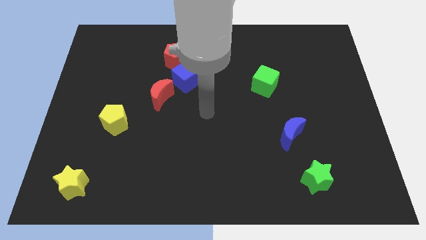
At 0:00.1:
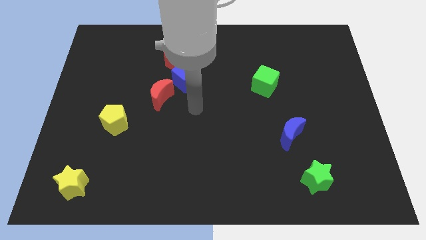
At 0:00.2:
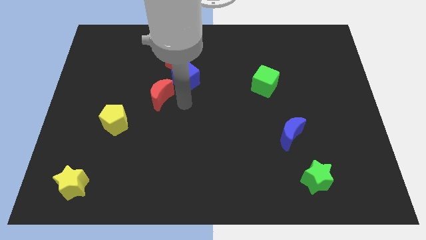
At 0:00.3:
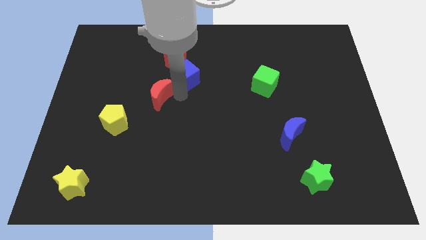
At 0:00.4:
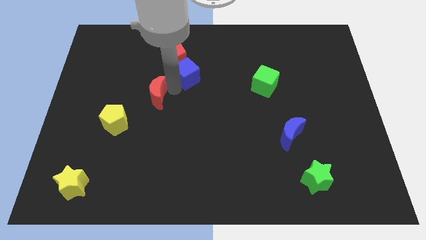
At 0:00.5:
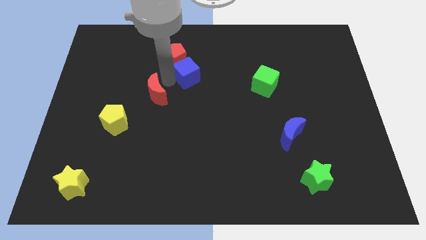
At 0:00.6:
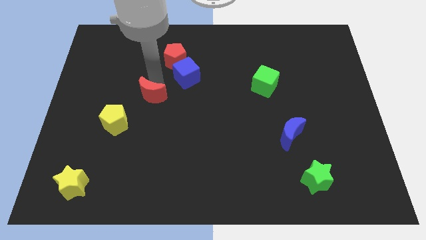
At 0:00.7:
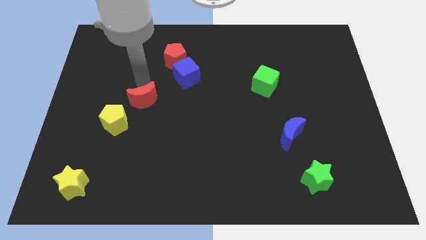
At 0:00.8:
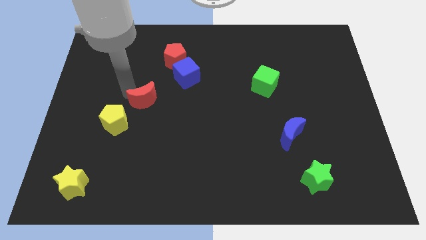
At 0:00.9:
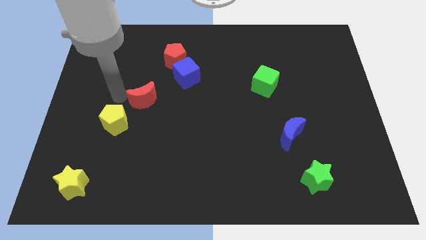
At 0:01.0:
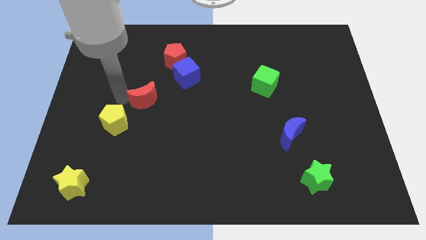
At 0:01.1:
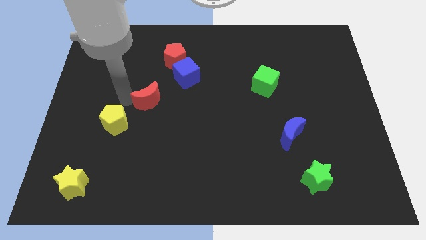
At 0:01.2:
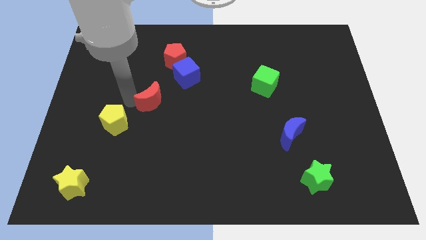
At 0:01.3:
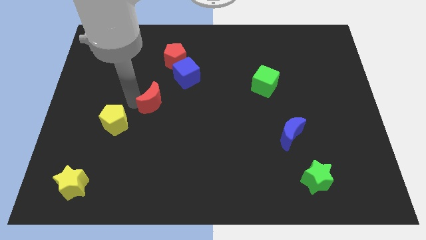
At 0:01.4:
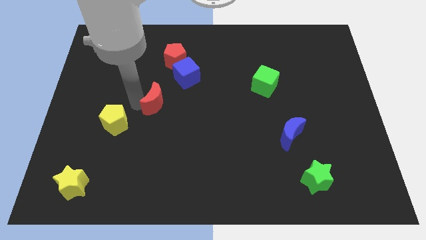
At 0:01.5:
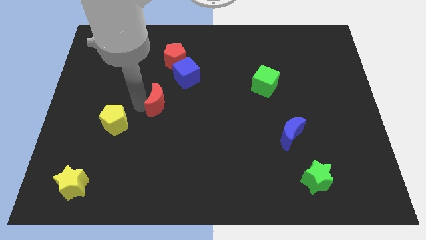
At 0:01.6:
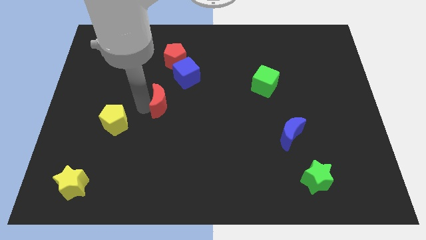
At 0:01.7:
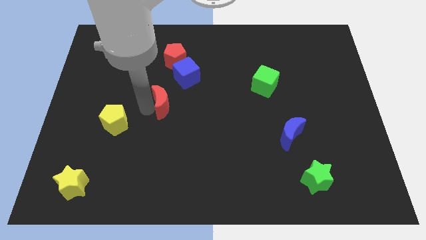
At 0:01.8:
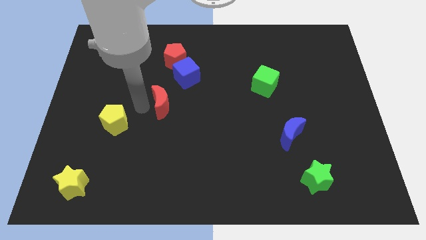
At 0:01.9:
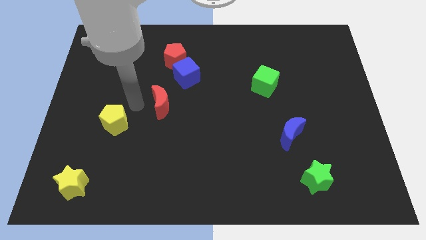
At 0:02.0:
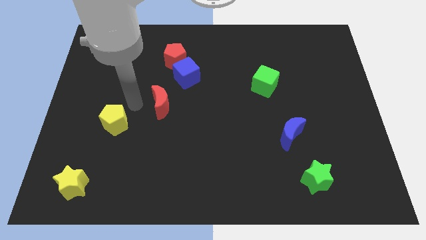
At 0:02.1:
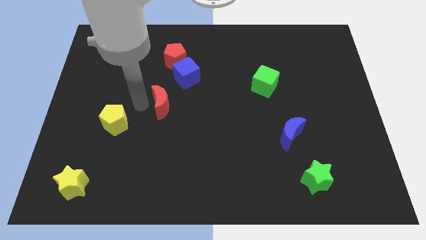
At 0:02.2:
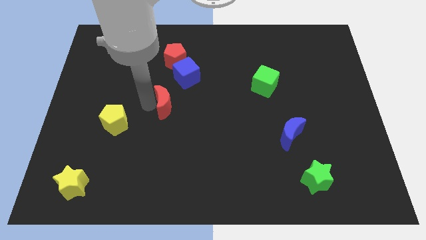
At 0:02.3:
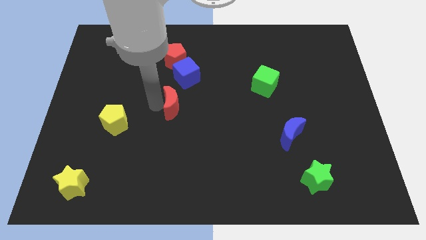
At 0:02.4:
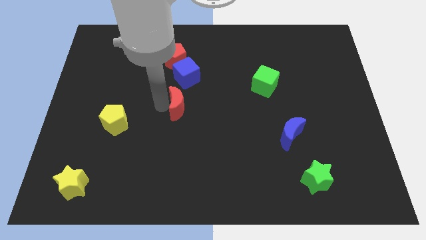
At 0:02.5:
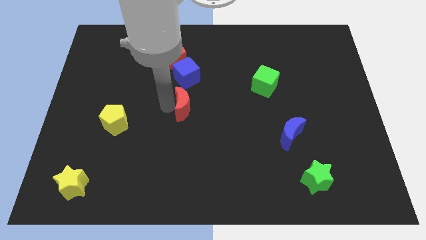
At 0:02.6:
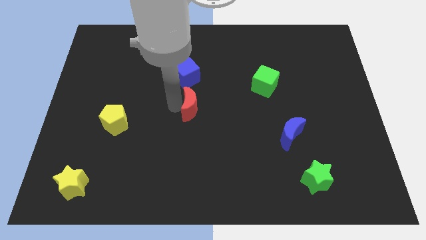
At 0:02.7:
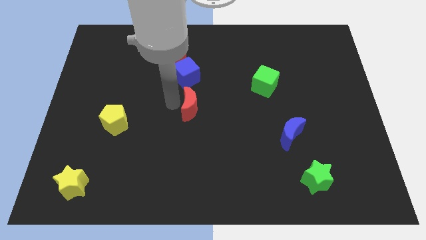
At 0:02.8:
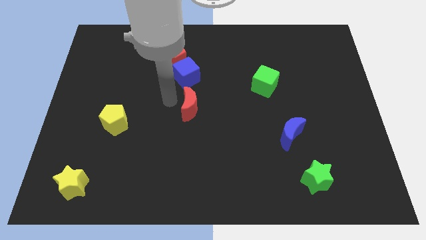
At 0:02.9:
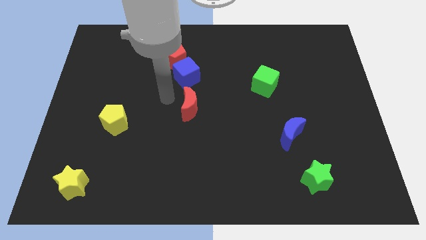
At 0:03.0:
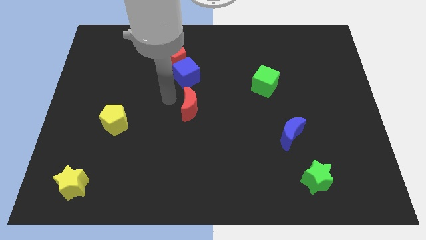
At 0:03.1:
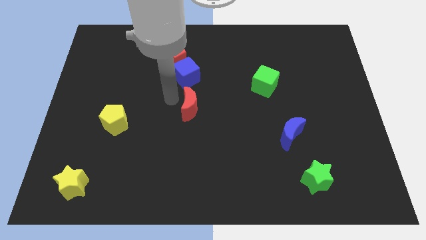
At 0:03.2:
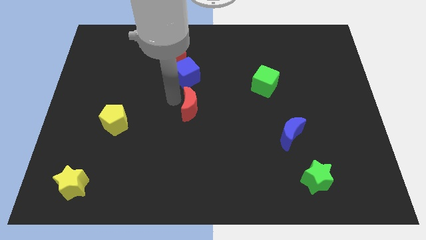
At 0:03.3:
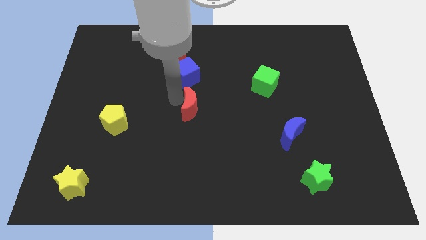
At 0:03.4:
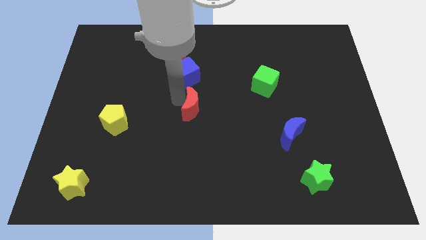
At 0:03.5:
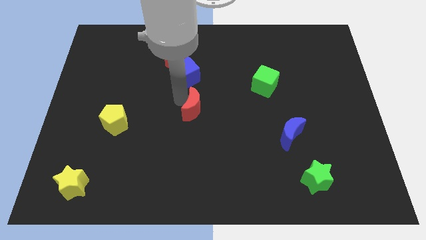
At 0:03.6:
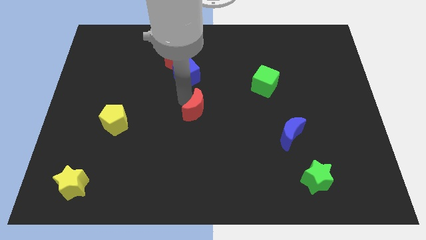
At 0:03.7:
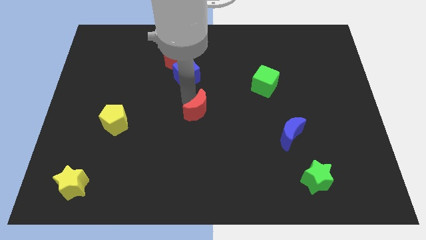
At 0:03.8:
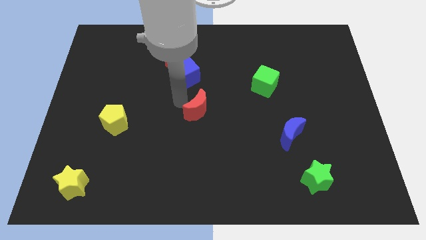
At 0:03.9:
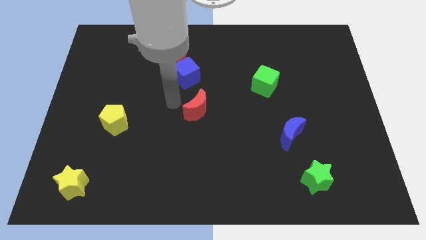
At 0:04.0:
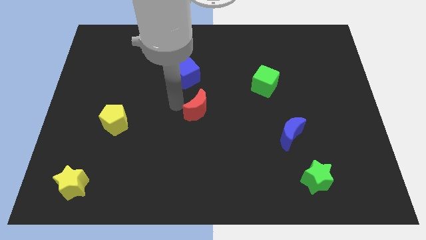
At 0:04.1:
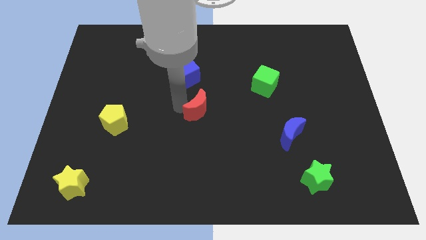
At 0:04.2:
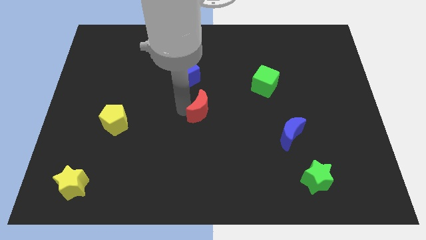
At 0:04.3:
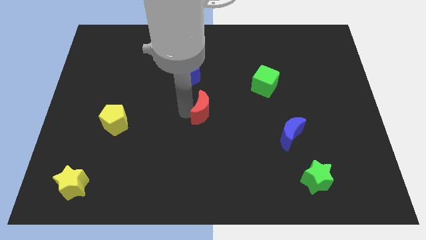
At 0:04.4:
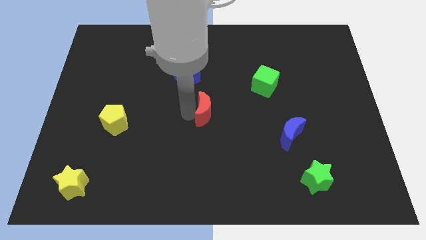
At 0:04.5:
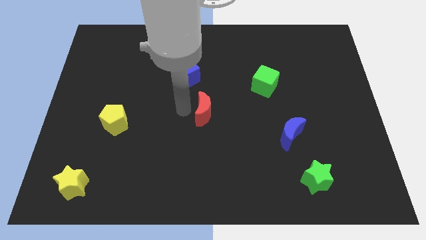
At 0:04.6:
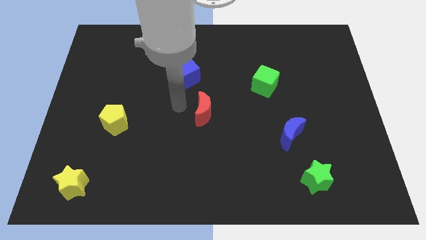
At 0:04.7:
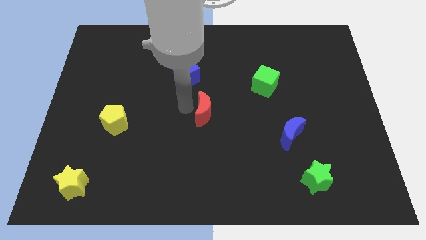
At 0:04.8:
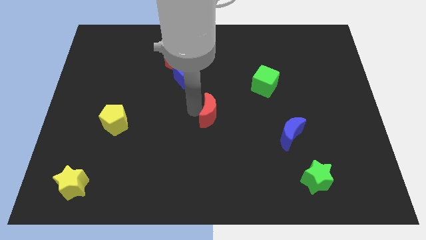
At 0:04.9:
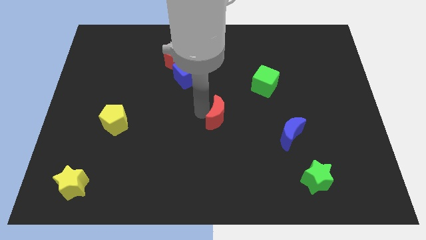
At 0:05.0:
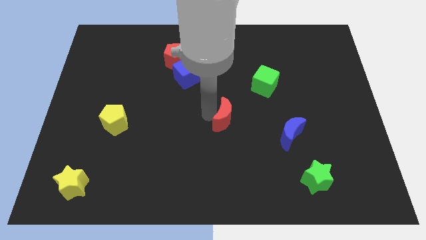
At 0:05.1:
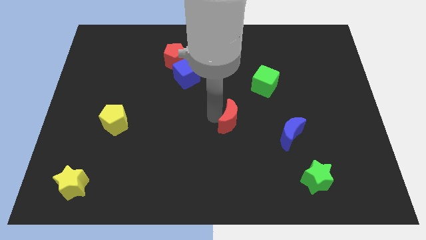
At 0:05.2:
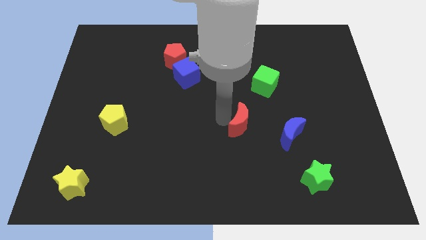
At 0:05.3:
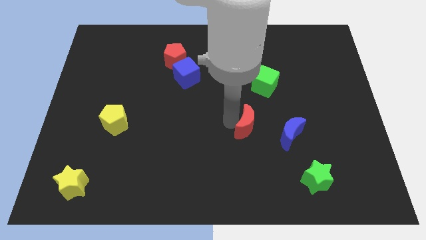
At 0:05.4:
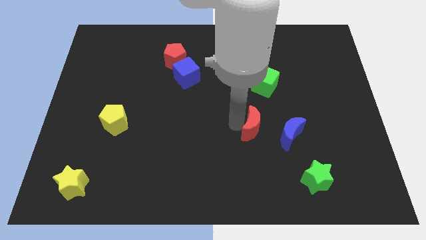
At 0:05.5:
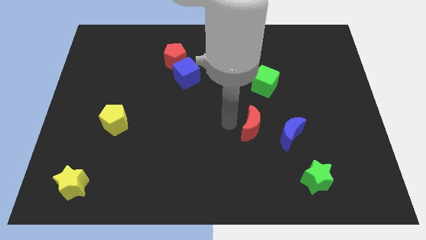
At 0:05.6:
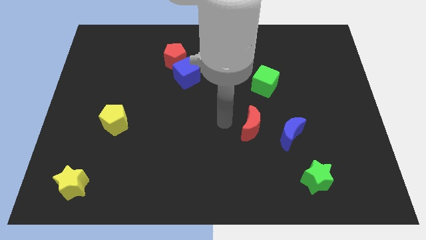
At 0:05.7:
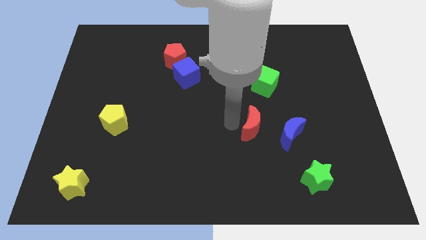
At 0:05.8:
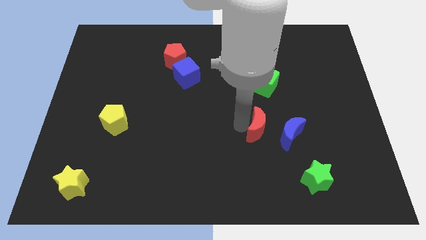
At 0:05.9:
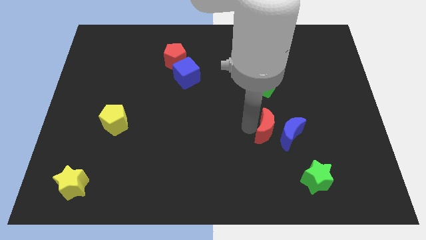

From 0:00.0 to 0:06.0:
move the red moon towards the blue moon

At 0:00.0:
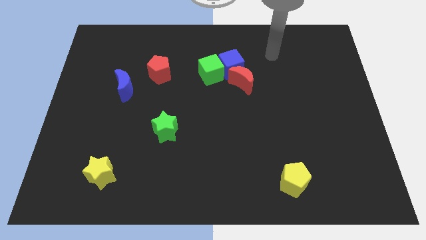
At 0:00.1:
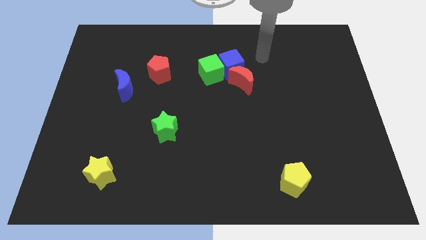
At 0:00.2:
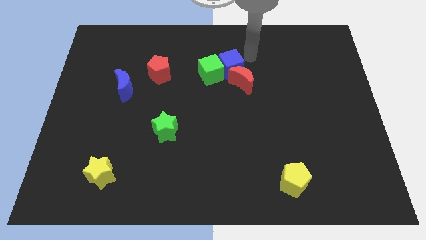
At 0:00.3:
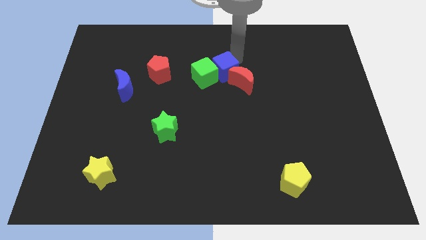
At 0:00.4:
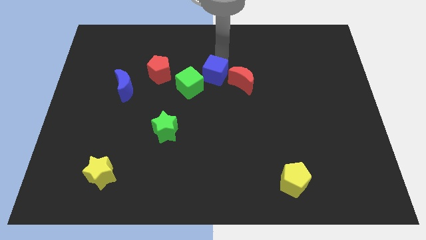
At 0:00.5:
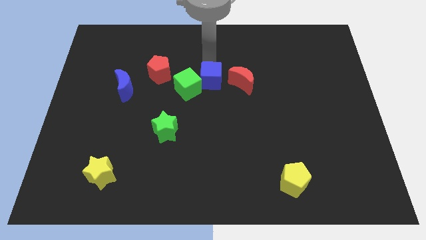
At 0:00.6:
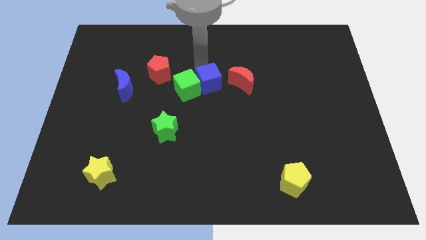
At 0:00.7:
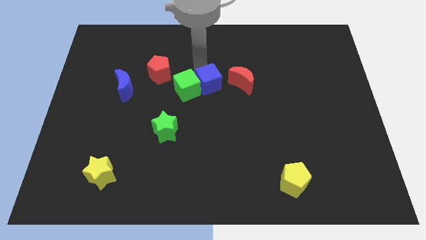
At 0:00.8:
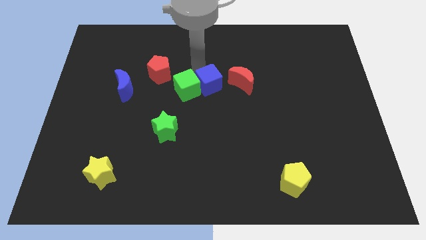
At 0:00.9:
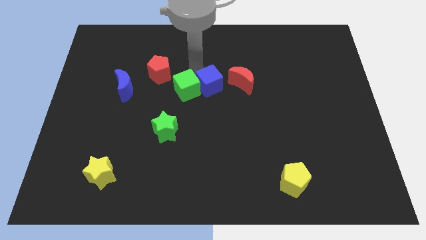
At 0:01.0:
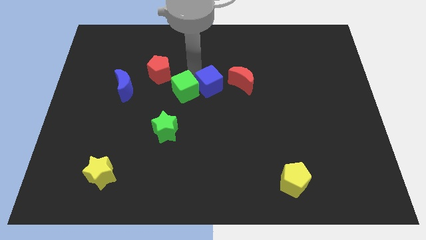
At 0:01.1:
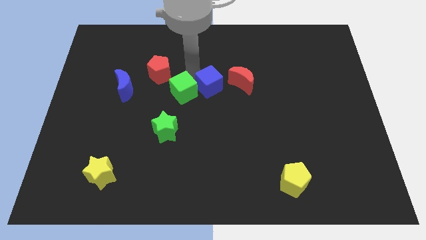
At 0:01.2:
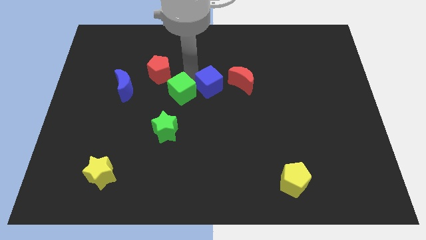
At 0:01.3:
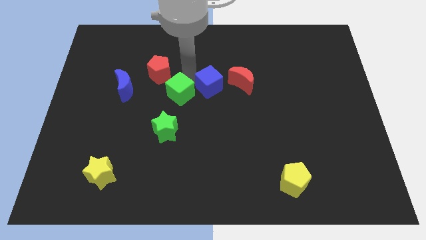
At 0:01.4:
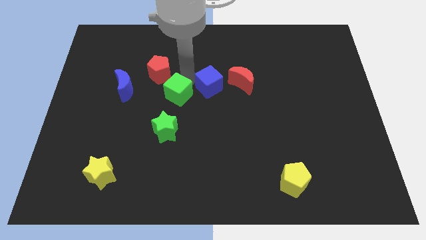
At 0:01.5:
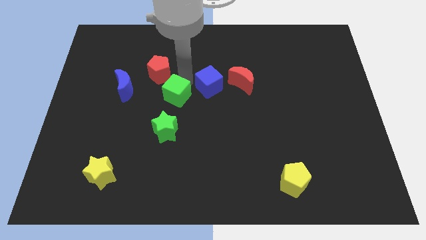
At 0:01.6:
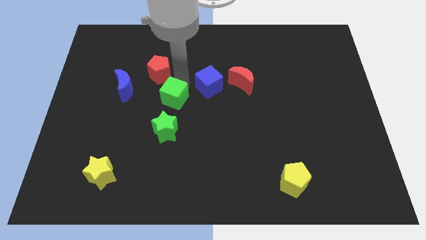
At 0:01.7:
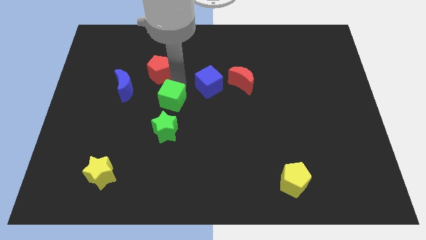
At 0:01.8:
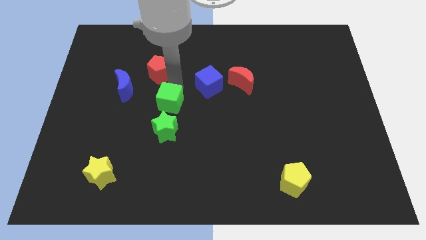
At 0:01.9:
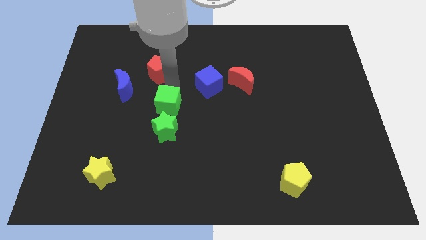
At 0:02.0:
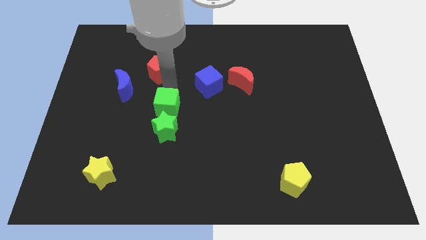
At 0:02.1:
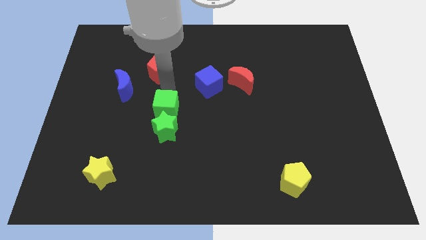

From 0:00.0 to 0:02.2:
move the green cube next to the green star
